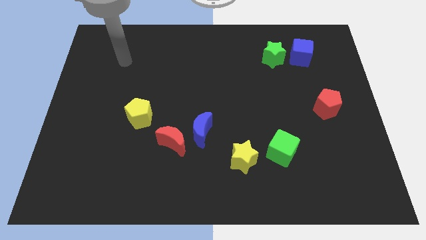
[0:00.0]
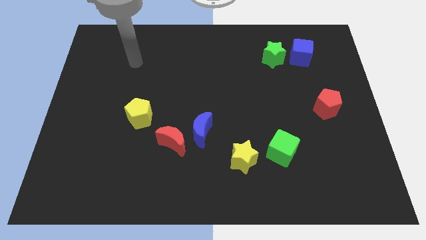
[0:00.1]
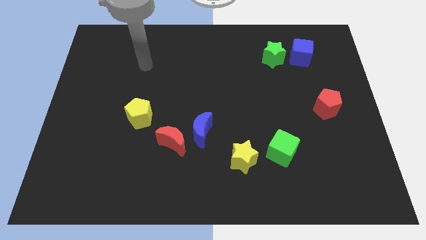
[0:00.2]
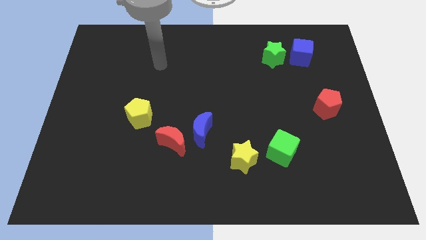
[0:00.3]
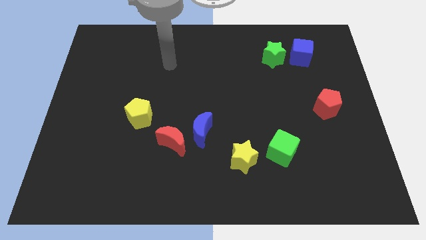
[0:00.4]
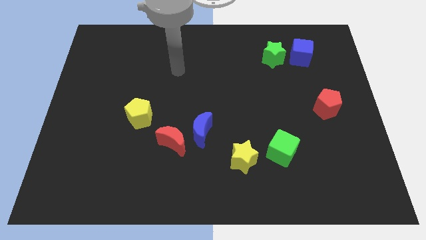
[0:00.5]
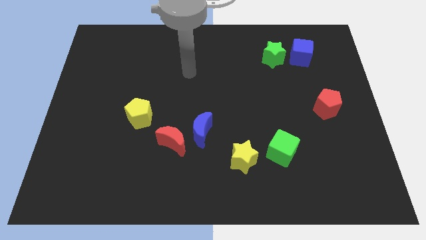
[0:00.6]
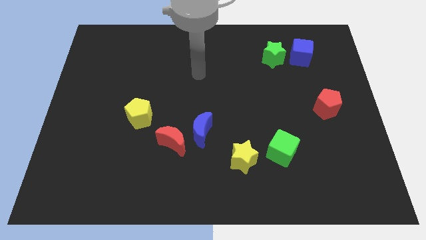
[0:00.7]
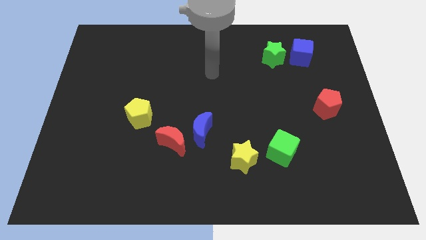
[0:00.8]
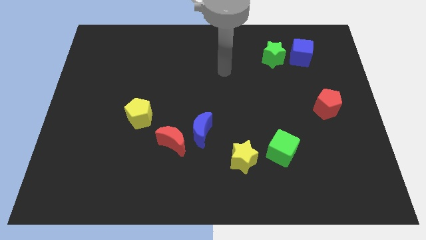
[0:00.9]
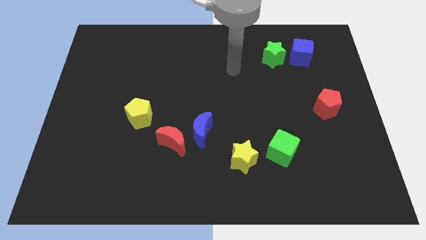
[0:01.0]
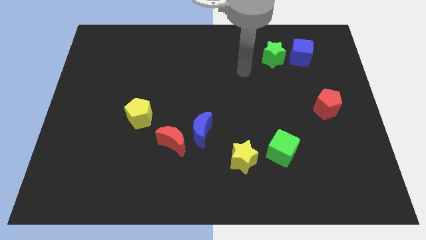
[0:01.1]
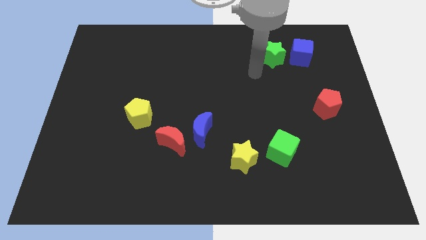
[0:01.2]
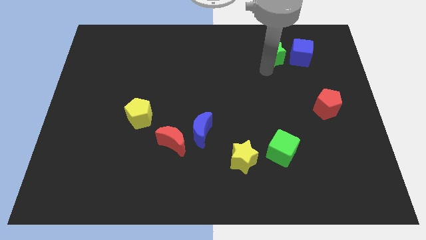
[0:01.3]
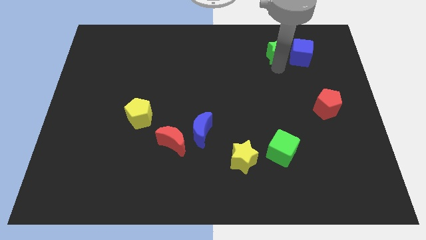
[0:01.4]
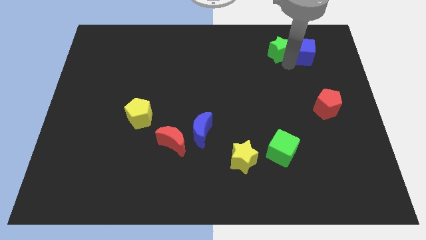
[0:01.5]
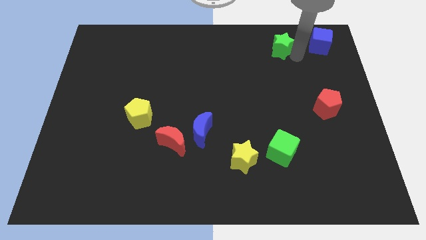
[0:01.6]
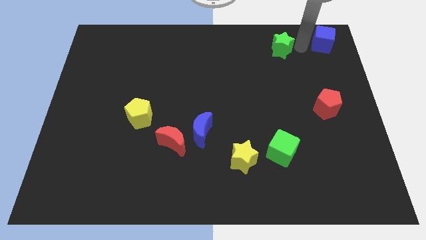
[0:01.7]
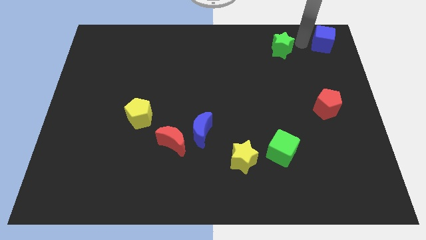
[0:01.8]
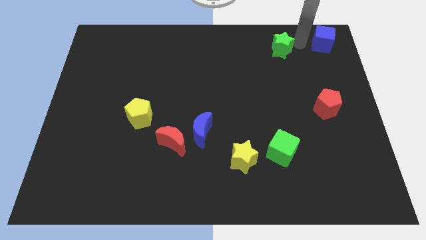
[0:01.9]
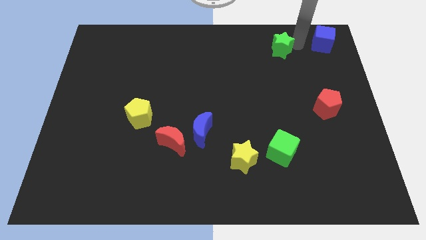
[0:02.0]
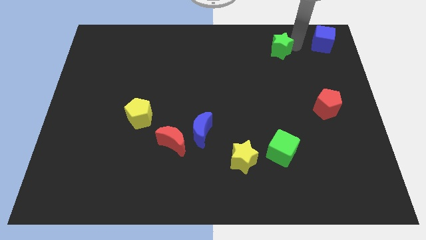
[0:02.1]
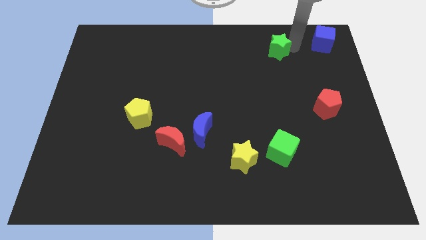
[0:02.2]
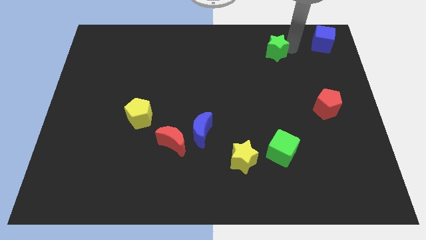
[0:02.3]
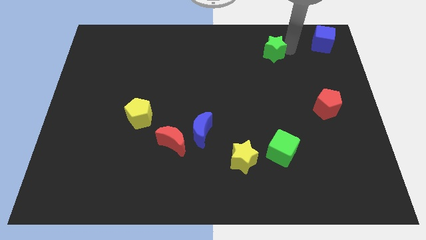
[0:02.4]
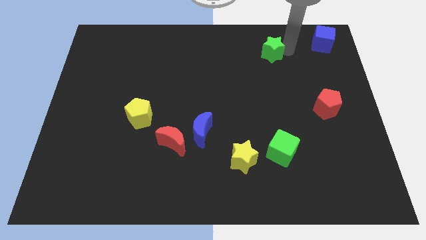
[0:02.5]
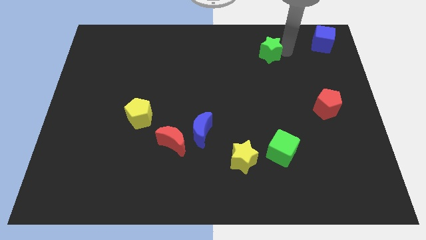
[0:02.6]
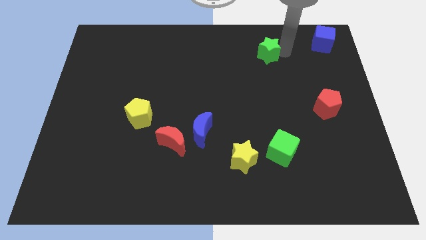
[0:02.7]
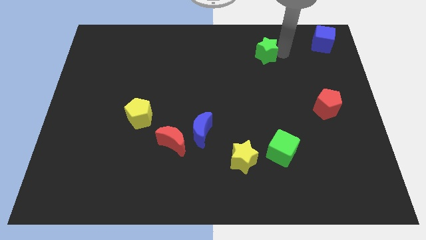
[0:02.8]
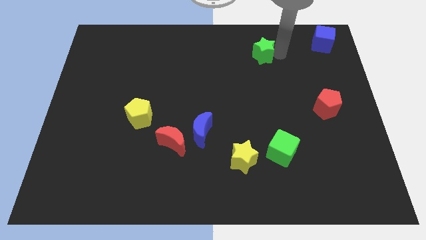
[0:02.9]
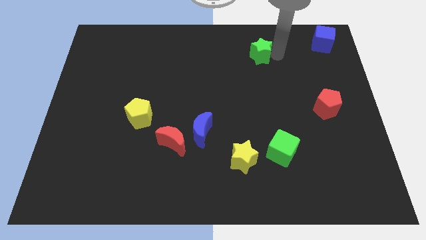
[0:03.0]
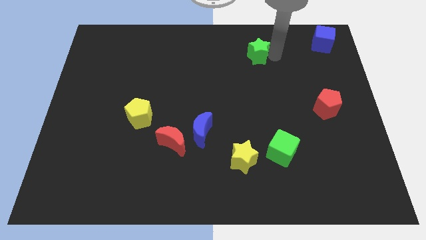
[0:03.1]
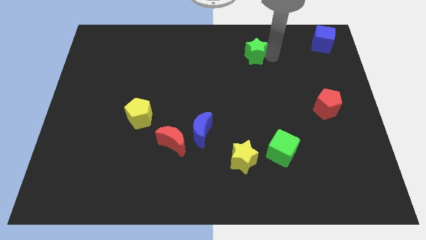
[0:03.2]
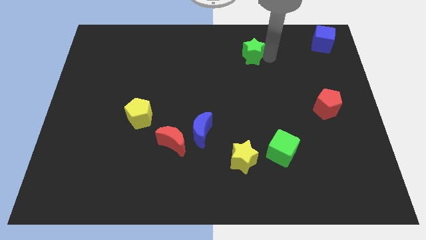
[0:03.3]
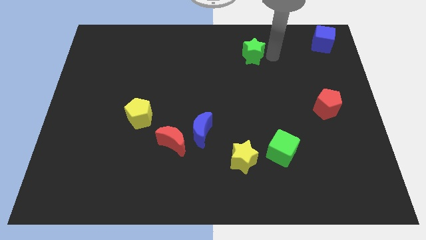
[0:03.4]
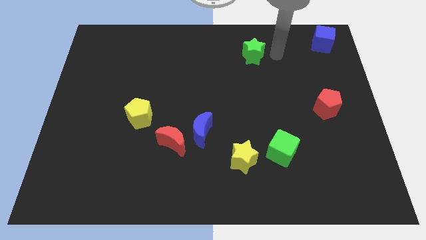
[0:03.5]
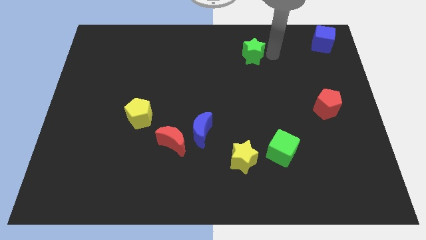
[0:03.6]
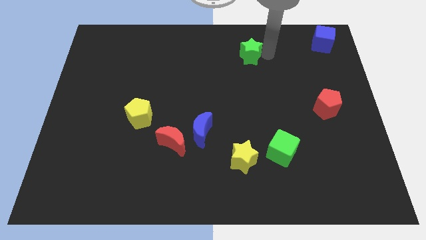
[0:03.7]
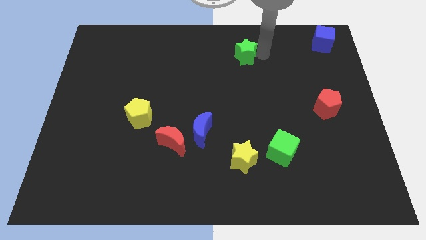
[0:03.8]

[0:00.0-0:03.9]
push the green star slightly left

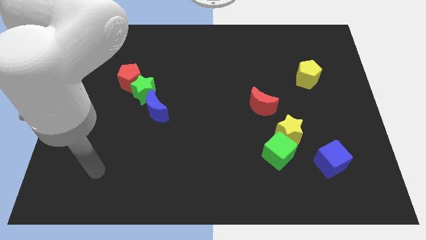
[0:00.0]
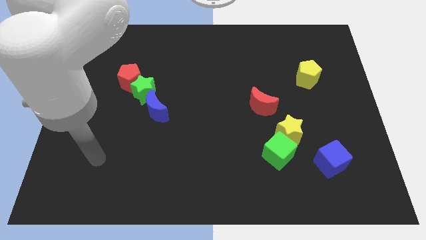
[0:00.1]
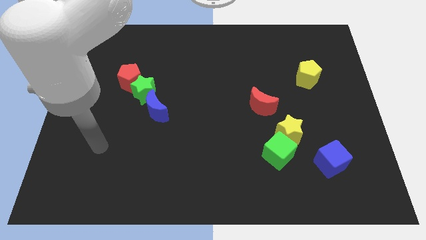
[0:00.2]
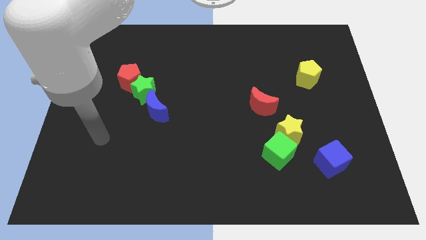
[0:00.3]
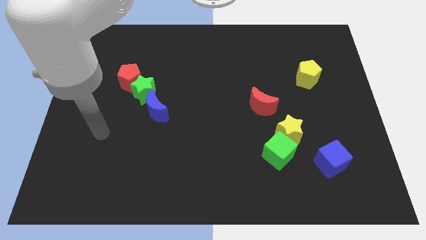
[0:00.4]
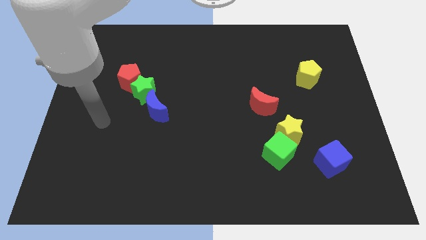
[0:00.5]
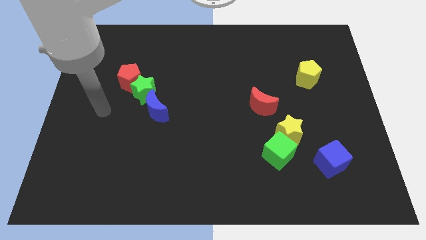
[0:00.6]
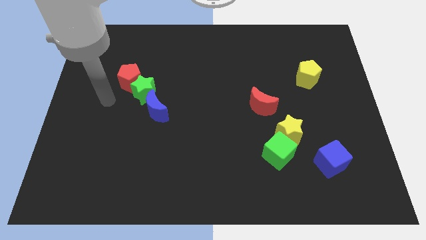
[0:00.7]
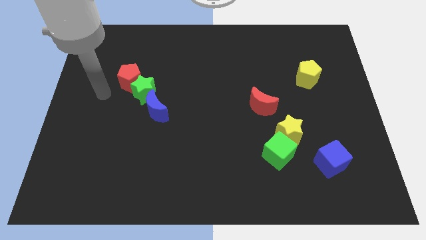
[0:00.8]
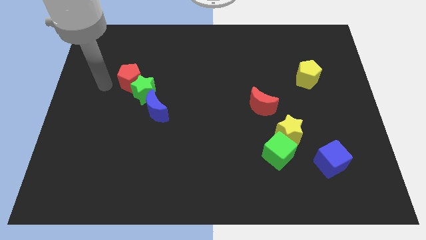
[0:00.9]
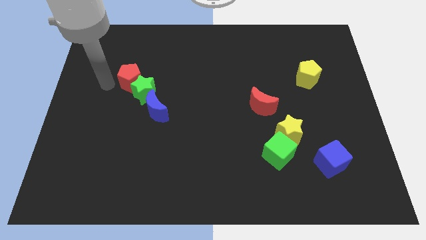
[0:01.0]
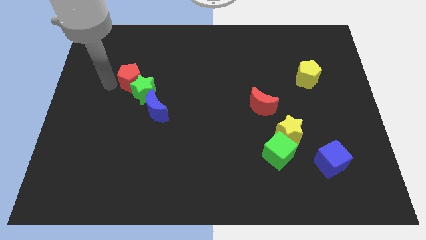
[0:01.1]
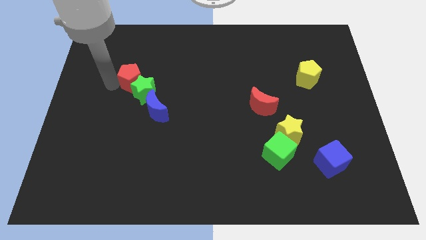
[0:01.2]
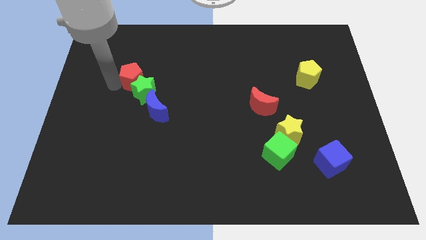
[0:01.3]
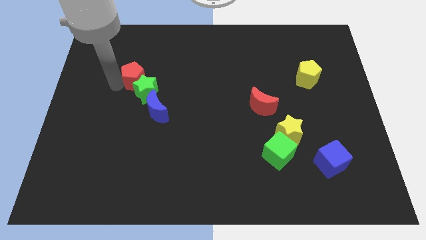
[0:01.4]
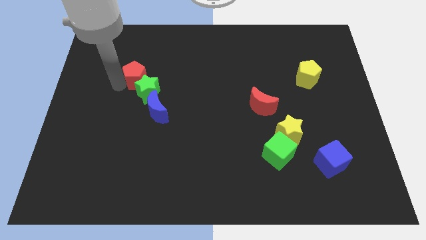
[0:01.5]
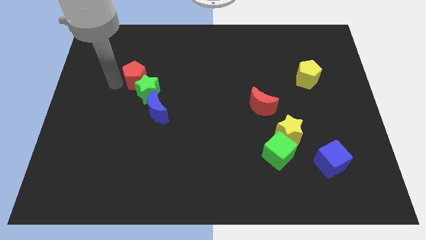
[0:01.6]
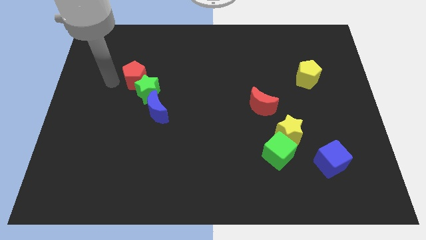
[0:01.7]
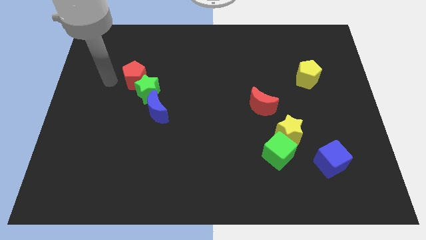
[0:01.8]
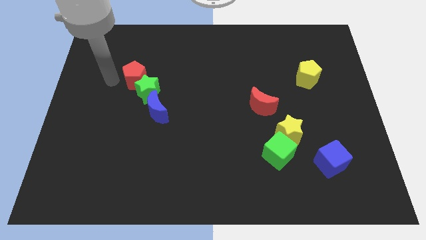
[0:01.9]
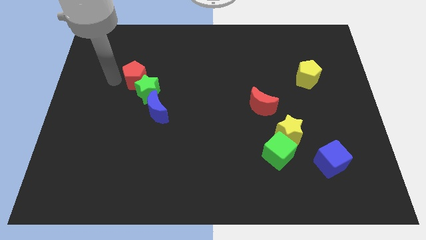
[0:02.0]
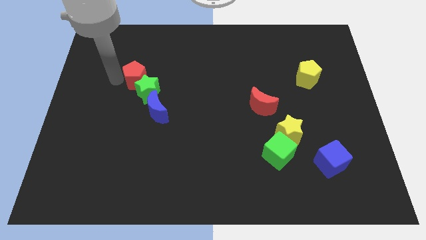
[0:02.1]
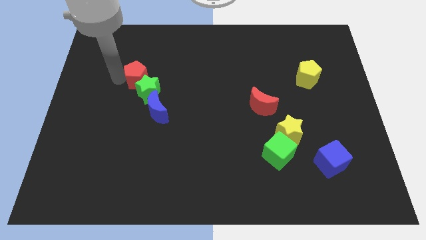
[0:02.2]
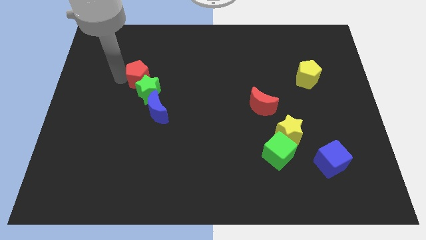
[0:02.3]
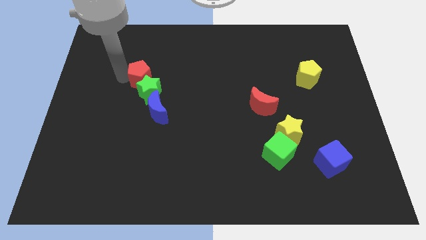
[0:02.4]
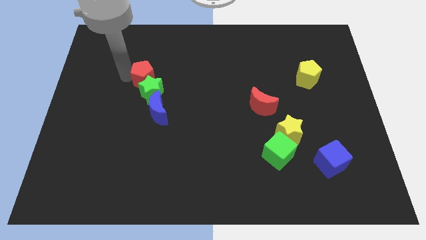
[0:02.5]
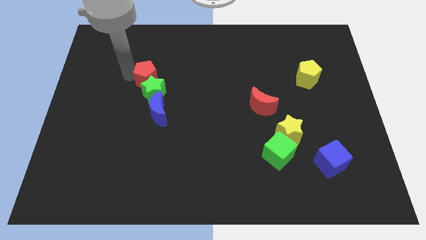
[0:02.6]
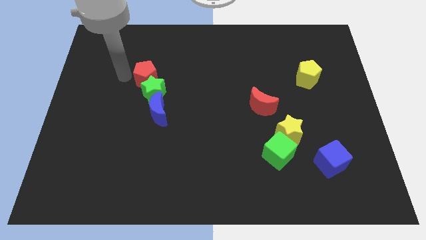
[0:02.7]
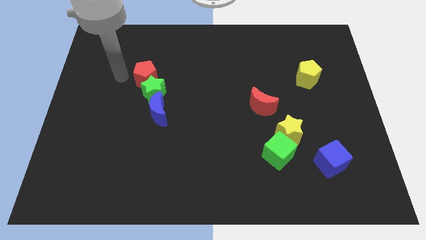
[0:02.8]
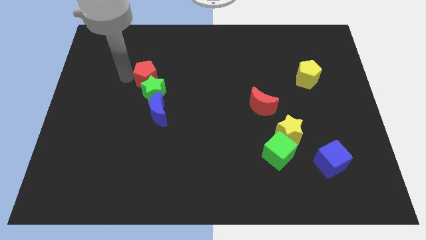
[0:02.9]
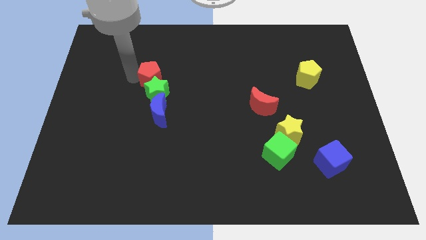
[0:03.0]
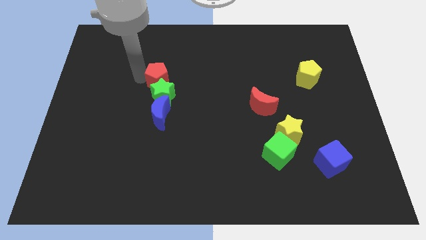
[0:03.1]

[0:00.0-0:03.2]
slightly move the red pentagon to the right

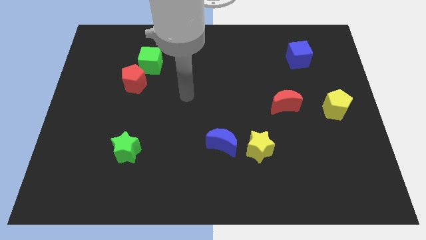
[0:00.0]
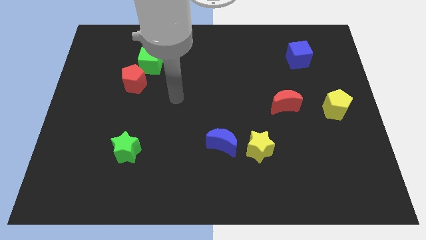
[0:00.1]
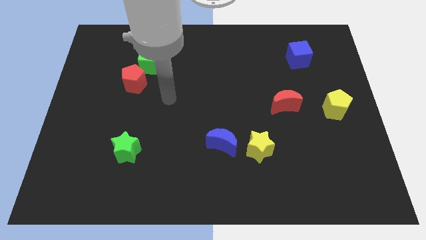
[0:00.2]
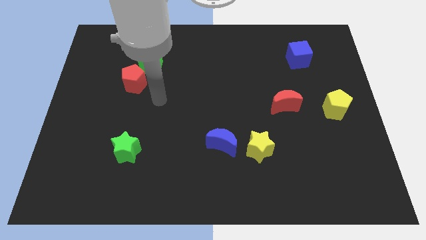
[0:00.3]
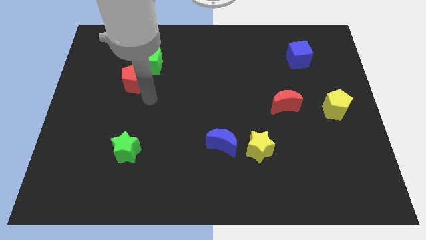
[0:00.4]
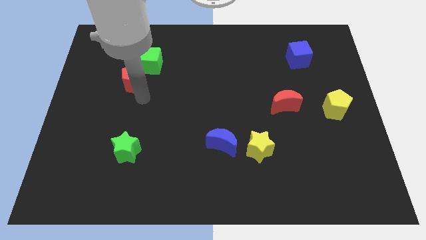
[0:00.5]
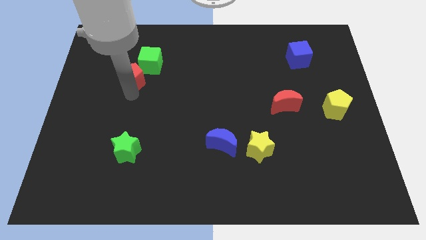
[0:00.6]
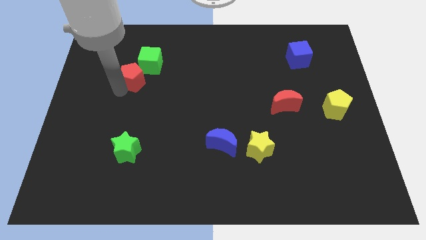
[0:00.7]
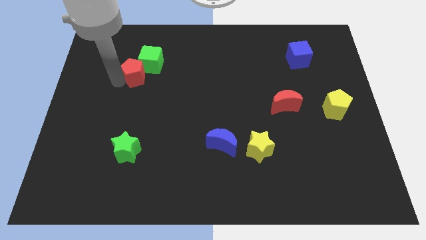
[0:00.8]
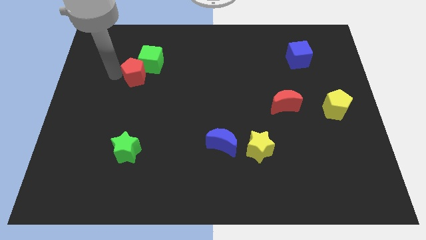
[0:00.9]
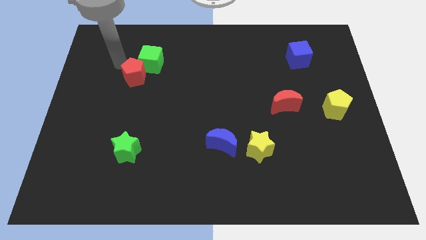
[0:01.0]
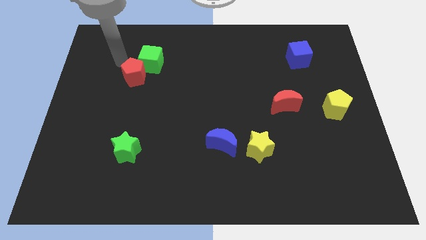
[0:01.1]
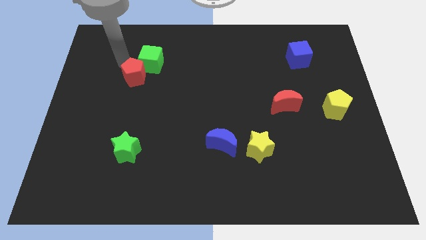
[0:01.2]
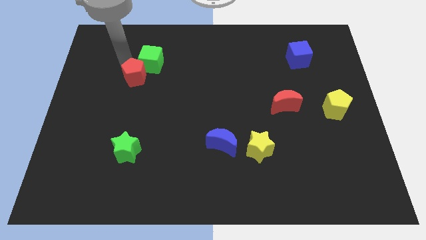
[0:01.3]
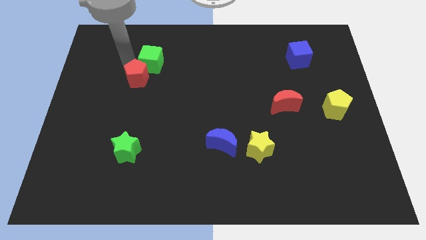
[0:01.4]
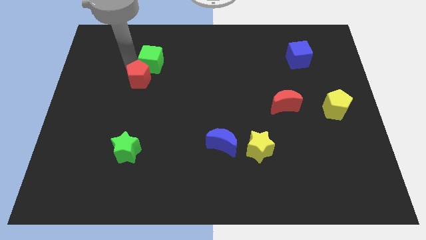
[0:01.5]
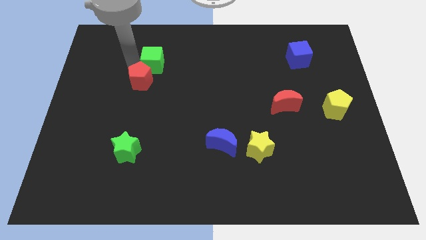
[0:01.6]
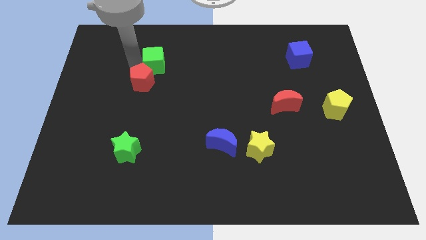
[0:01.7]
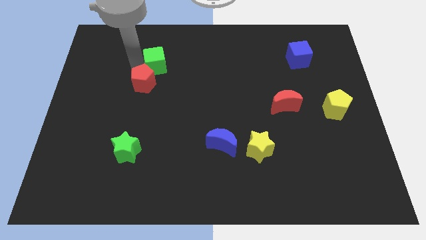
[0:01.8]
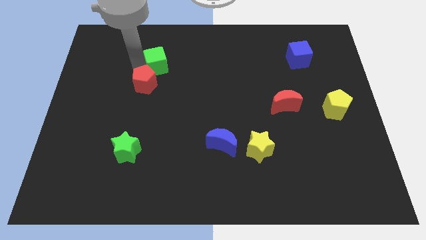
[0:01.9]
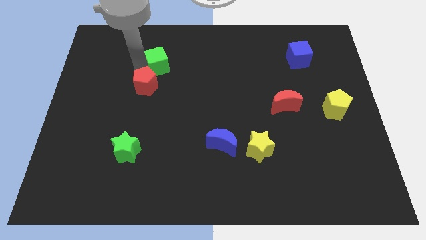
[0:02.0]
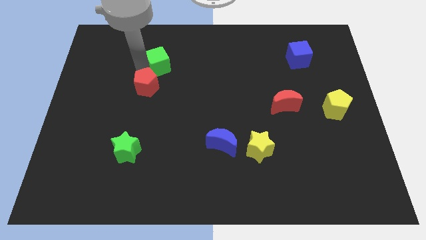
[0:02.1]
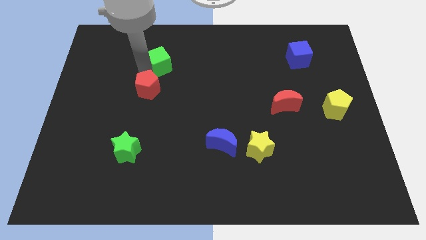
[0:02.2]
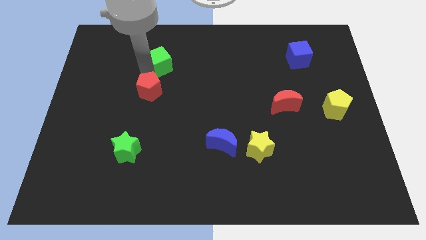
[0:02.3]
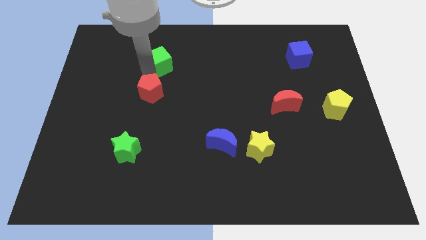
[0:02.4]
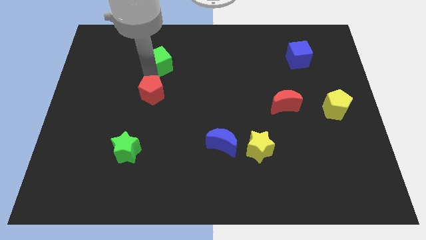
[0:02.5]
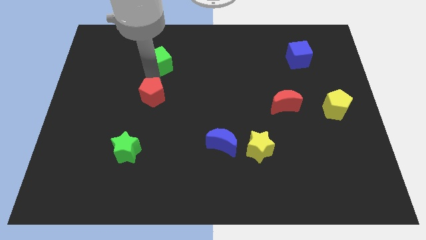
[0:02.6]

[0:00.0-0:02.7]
slide the red pentagon down and right a little bit
